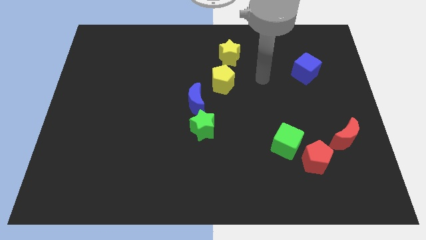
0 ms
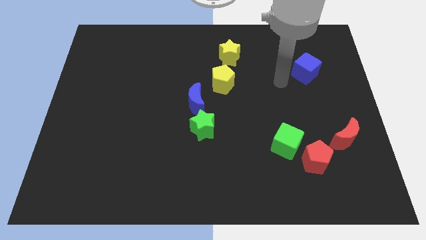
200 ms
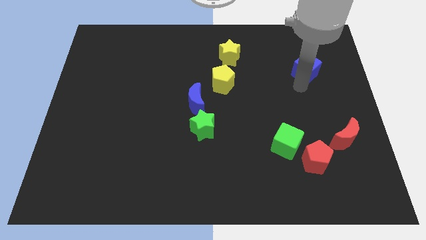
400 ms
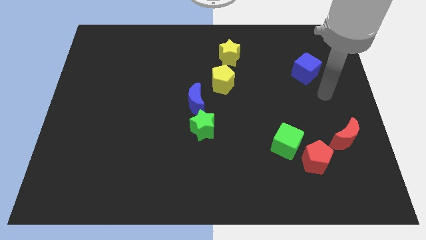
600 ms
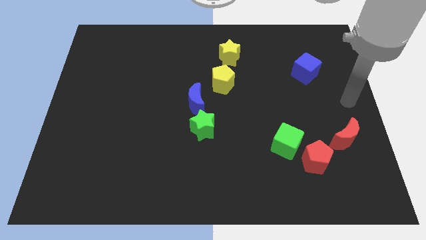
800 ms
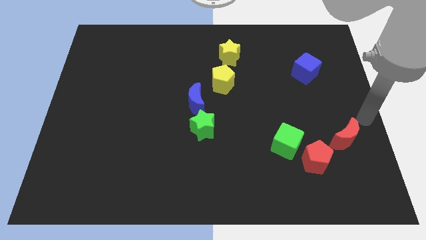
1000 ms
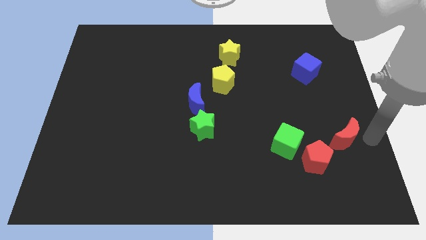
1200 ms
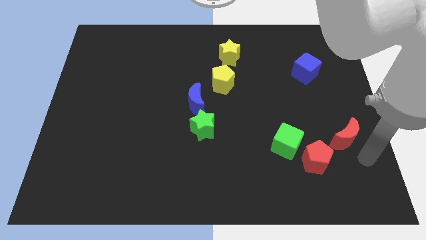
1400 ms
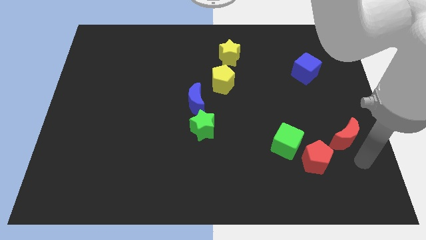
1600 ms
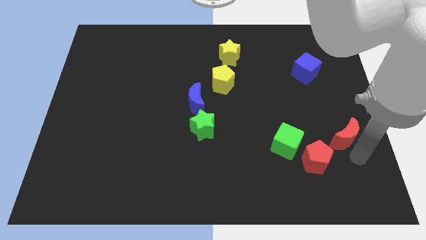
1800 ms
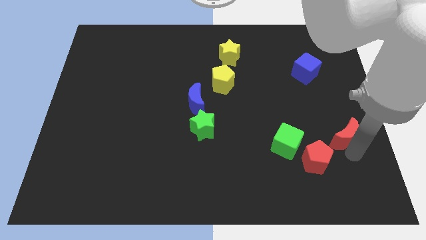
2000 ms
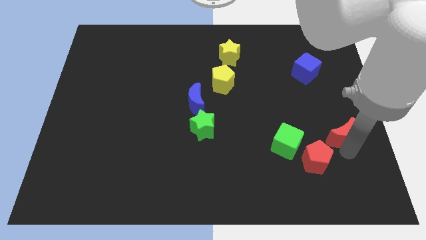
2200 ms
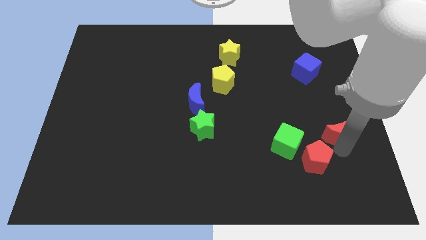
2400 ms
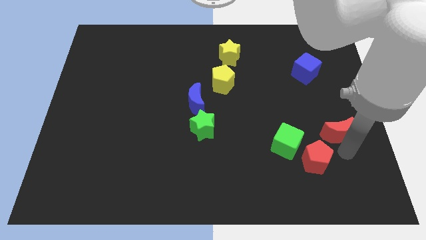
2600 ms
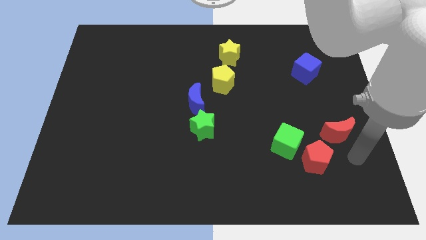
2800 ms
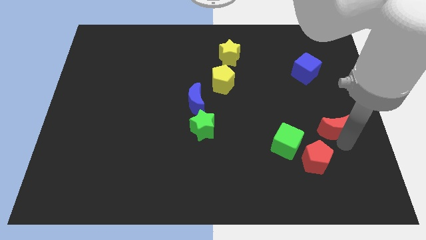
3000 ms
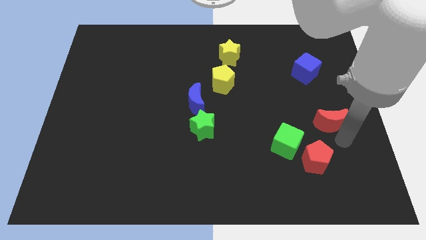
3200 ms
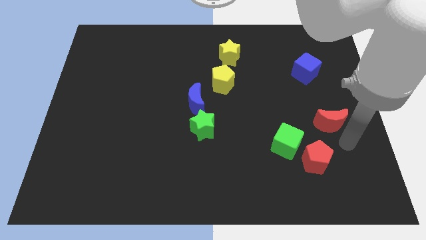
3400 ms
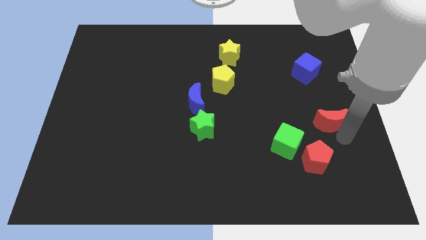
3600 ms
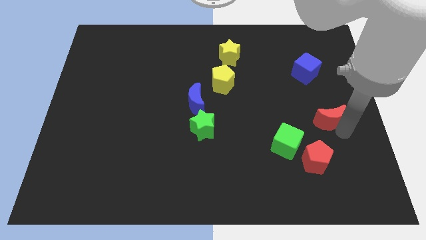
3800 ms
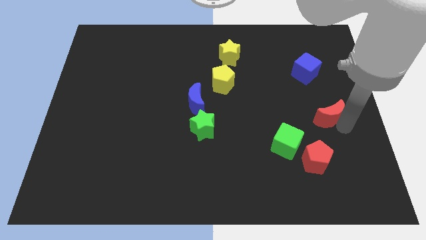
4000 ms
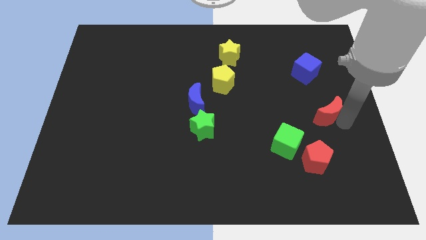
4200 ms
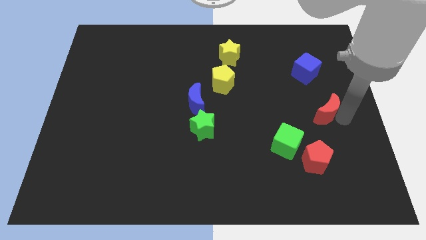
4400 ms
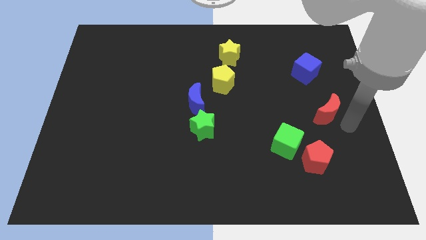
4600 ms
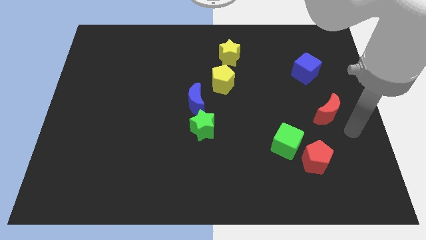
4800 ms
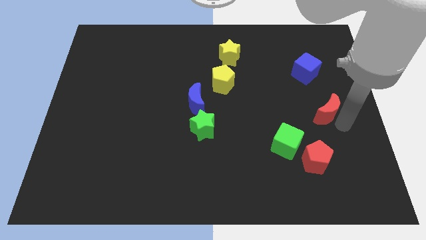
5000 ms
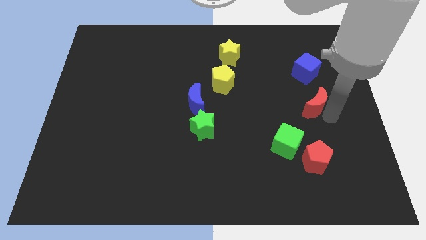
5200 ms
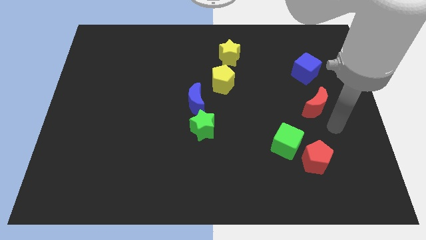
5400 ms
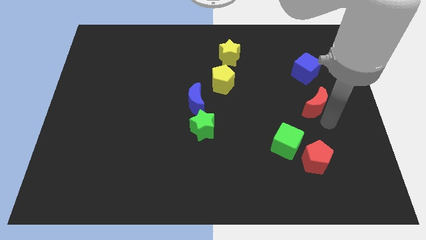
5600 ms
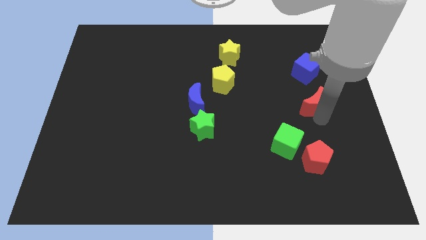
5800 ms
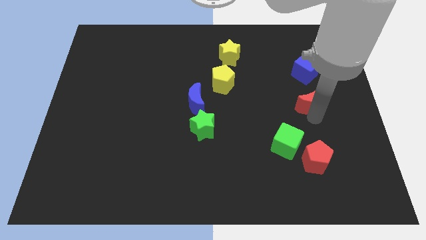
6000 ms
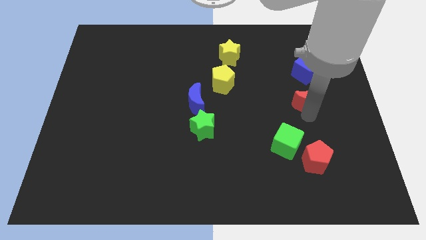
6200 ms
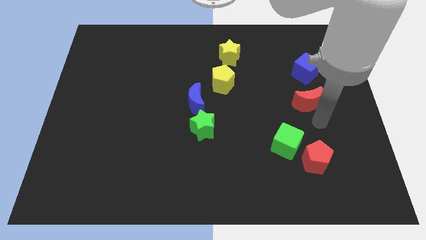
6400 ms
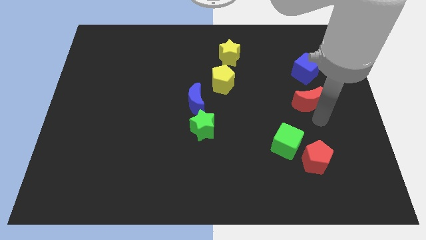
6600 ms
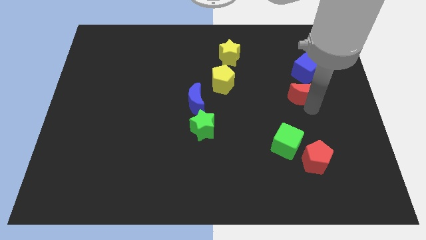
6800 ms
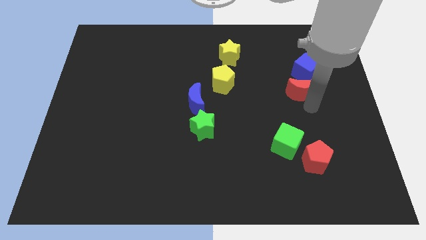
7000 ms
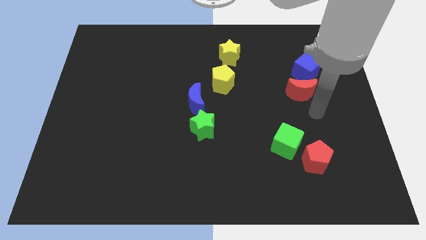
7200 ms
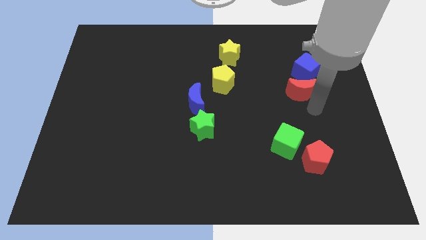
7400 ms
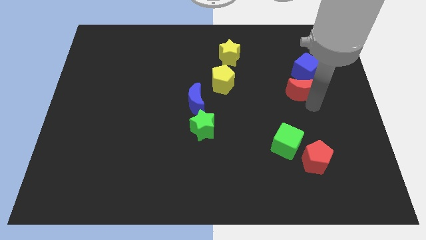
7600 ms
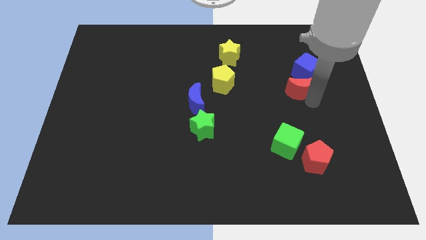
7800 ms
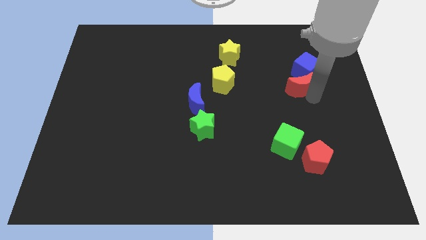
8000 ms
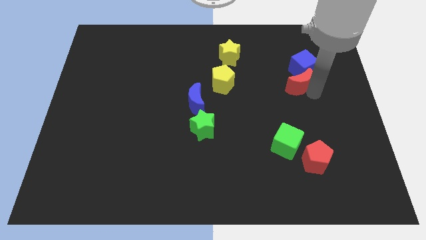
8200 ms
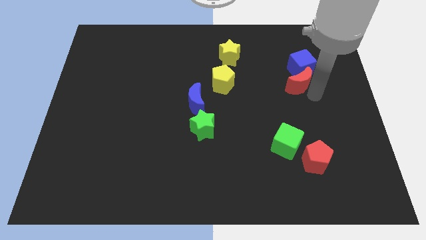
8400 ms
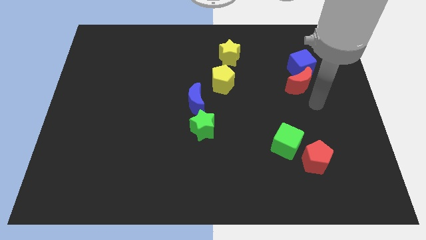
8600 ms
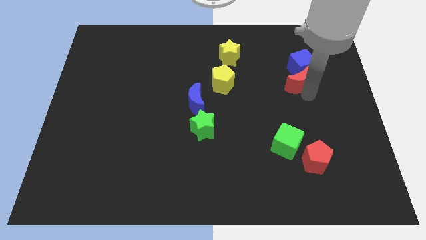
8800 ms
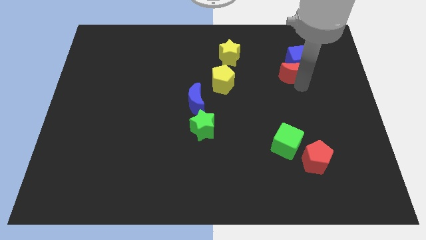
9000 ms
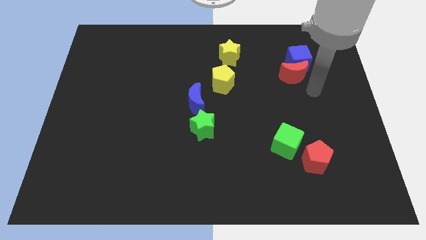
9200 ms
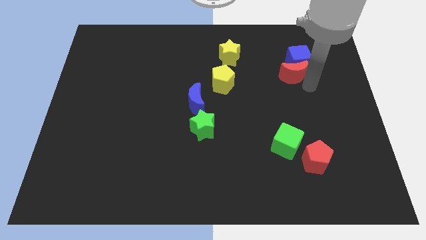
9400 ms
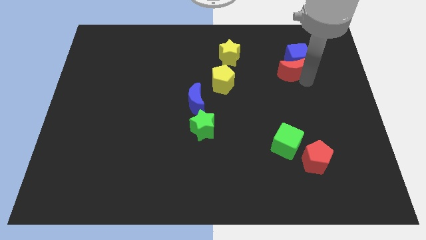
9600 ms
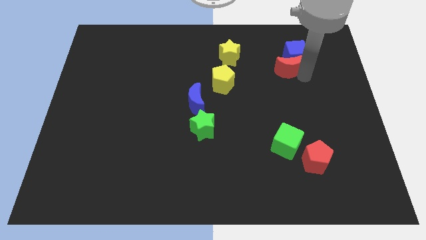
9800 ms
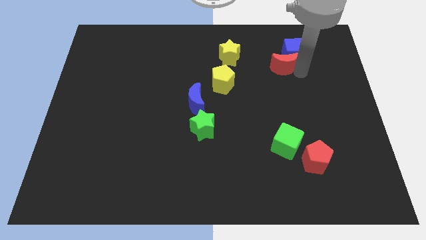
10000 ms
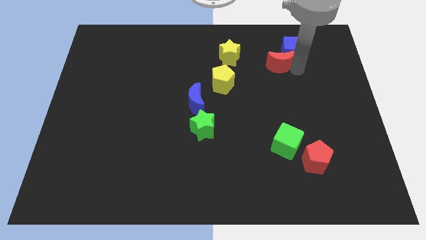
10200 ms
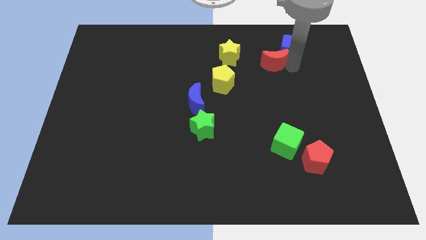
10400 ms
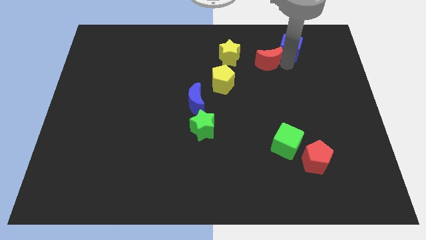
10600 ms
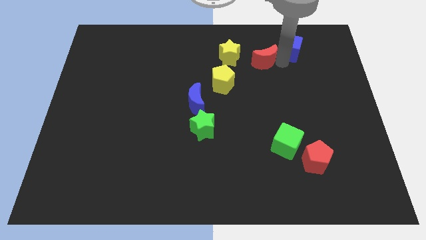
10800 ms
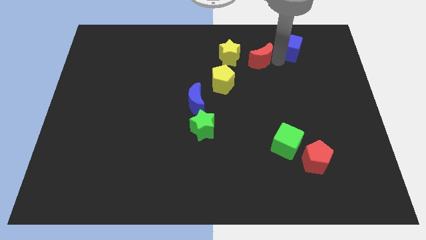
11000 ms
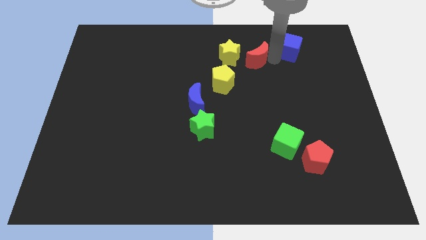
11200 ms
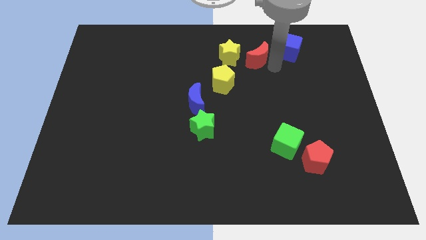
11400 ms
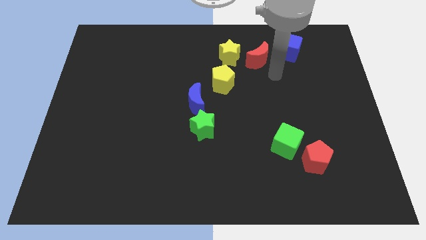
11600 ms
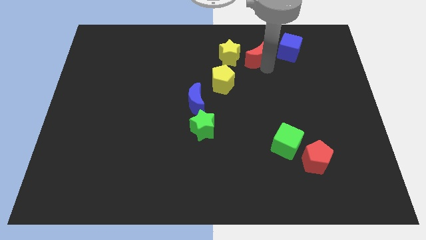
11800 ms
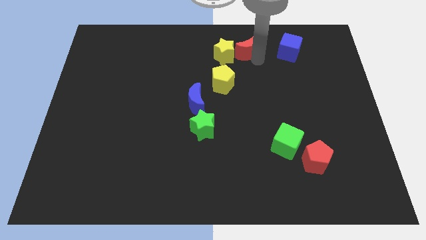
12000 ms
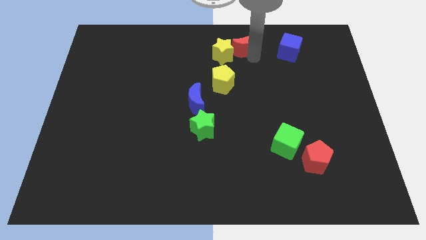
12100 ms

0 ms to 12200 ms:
slide the red moon to the top

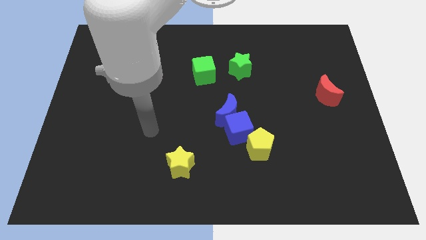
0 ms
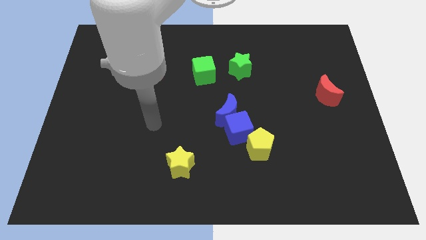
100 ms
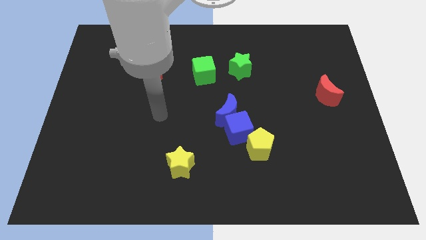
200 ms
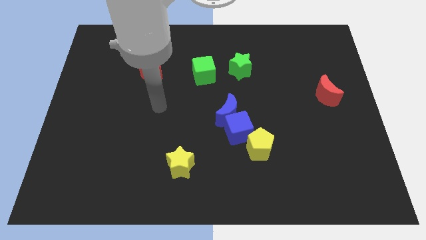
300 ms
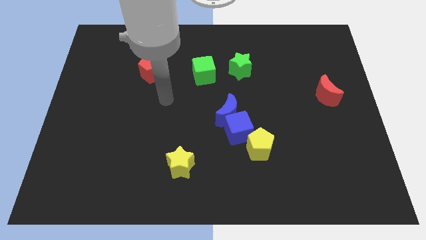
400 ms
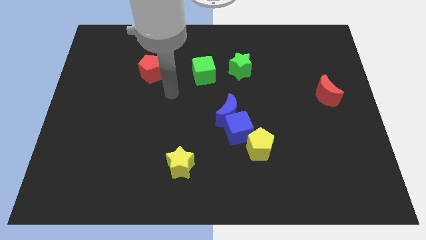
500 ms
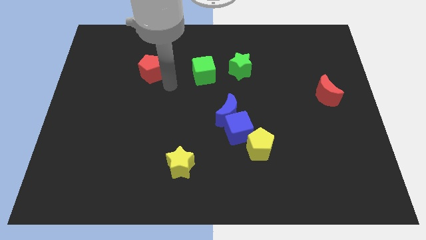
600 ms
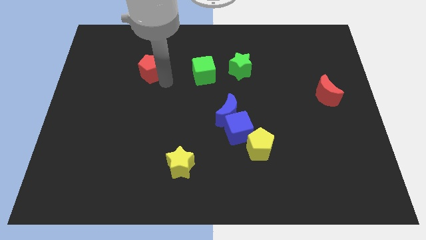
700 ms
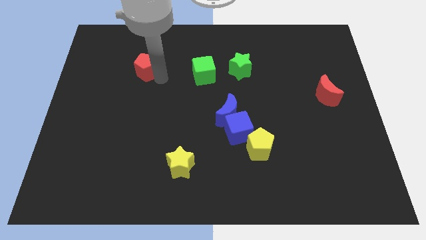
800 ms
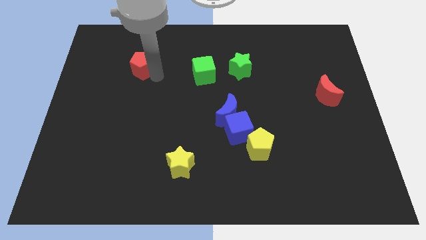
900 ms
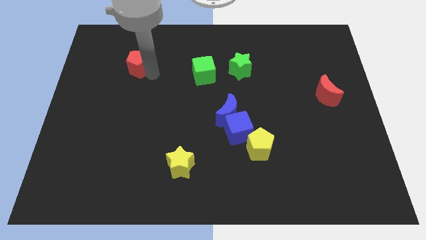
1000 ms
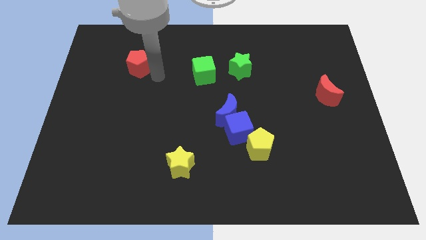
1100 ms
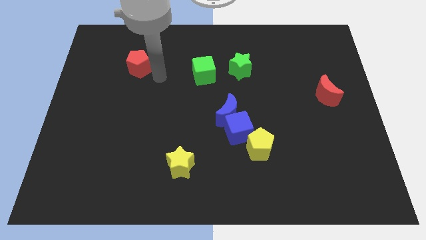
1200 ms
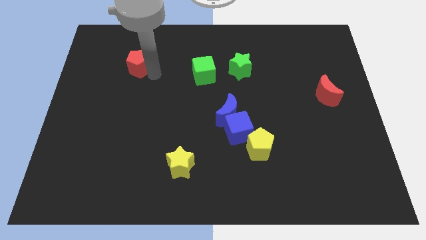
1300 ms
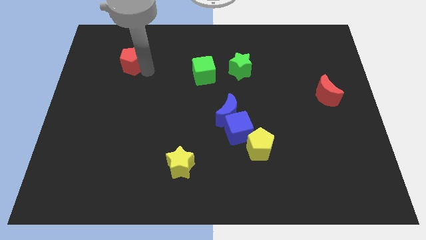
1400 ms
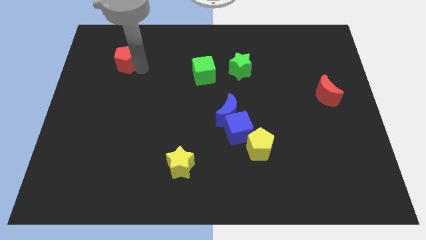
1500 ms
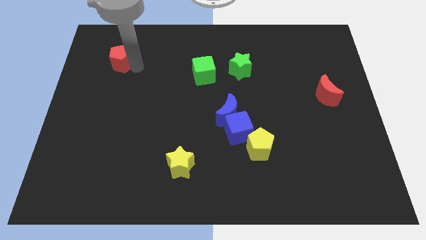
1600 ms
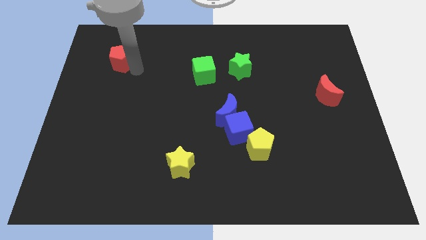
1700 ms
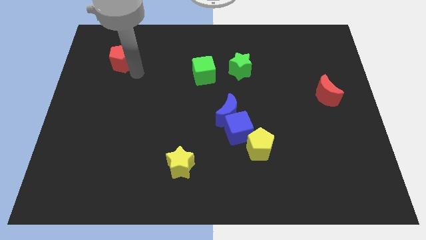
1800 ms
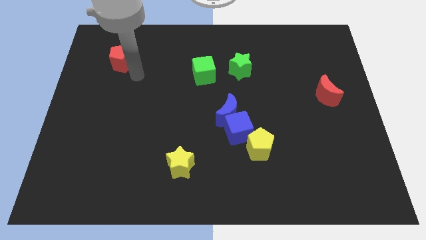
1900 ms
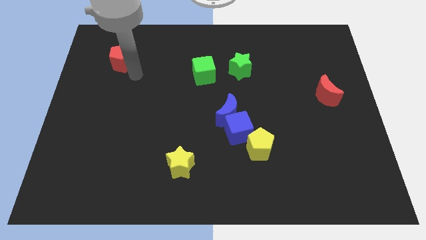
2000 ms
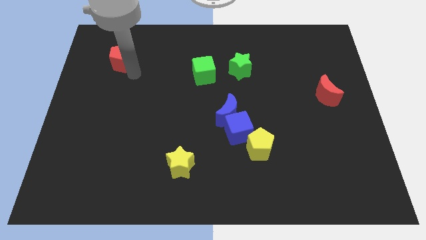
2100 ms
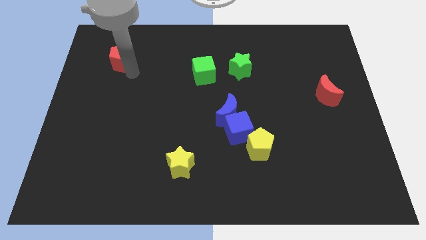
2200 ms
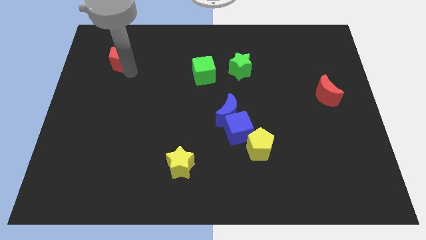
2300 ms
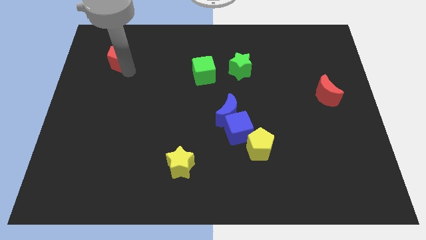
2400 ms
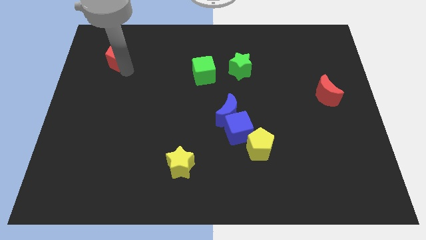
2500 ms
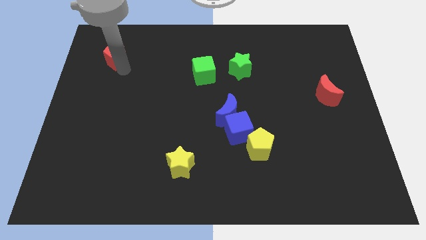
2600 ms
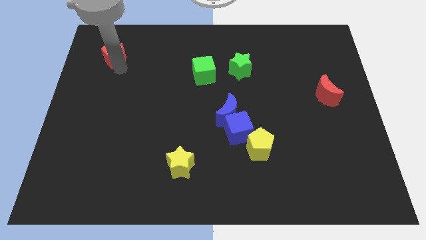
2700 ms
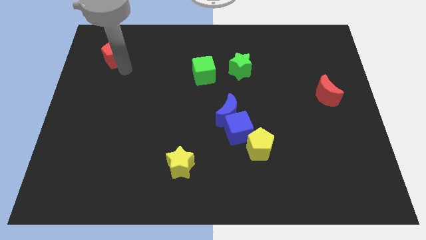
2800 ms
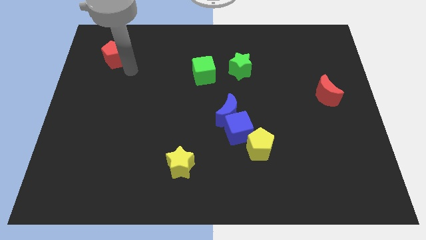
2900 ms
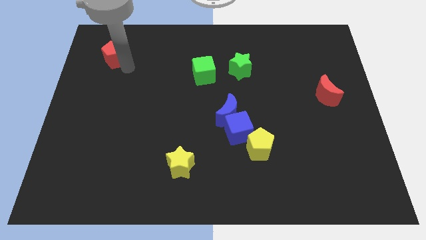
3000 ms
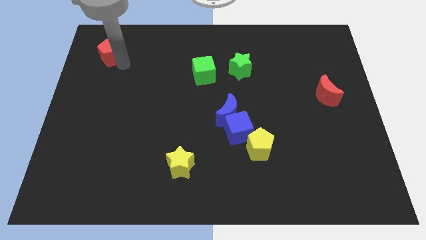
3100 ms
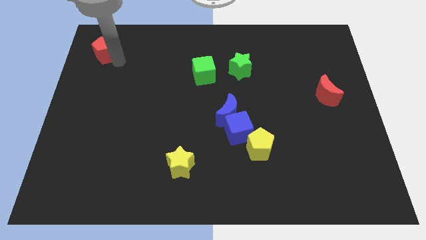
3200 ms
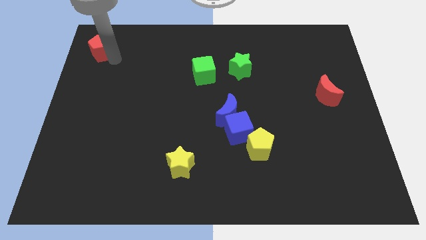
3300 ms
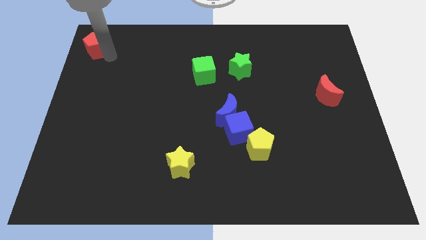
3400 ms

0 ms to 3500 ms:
put the red pentagon to the upper left corner
